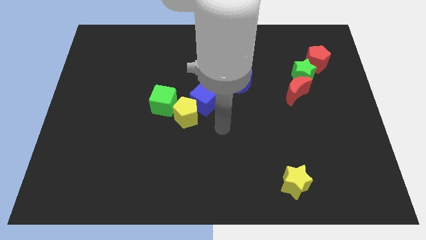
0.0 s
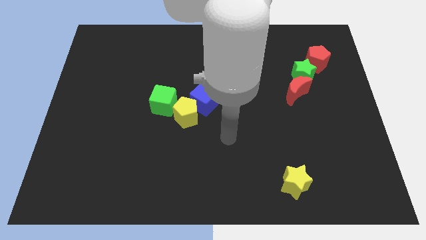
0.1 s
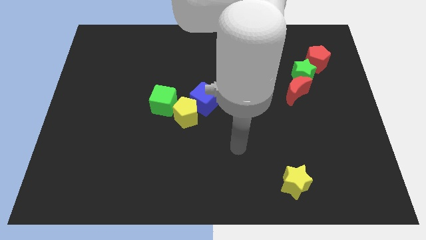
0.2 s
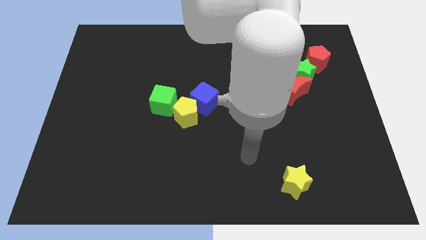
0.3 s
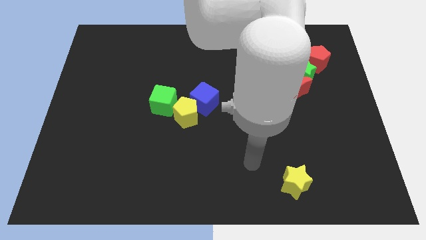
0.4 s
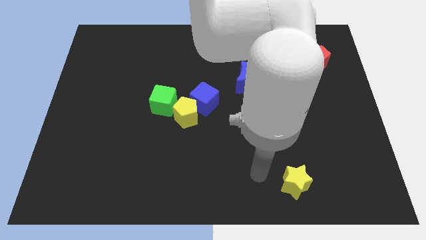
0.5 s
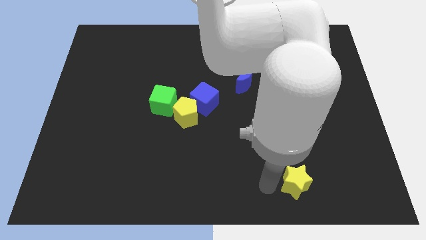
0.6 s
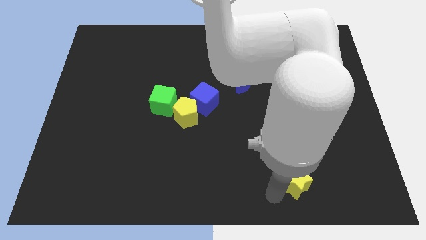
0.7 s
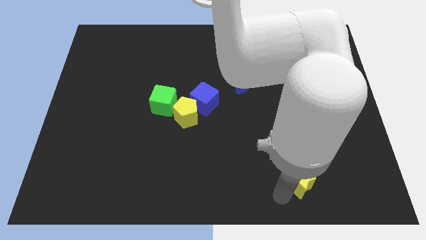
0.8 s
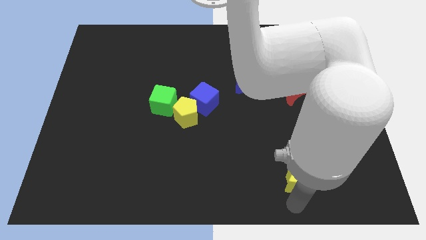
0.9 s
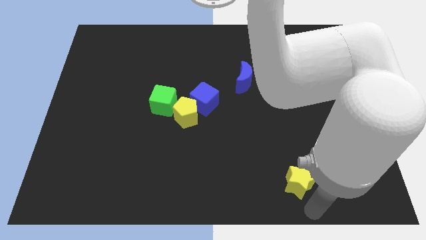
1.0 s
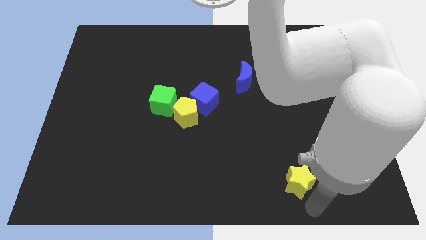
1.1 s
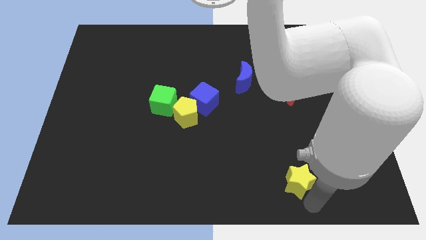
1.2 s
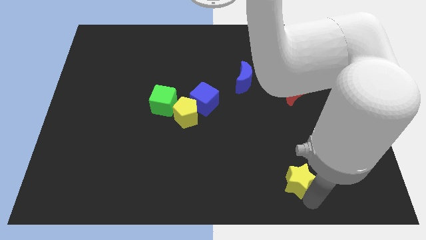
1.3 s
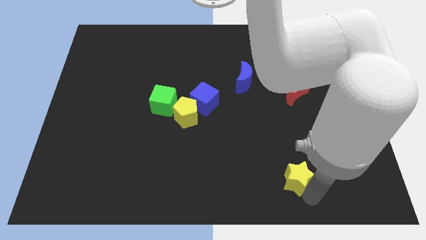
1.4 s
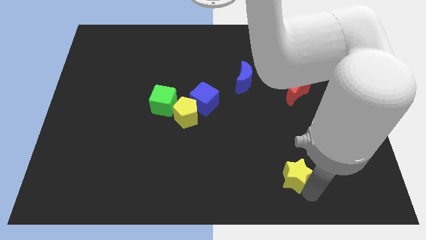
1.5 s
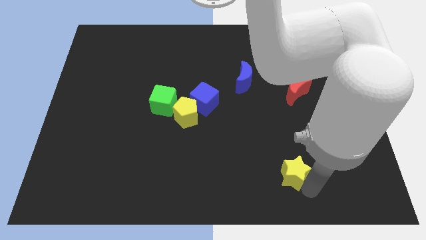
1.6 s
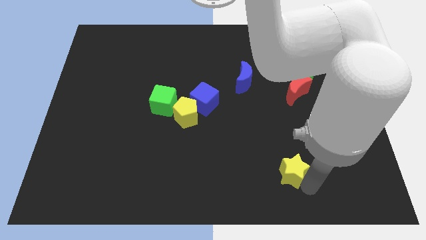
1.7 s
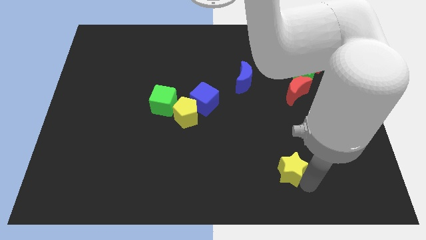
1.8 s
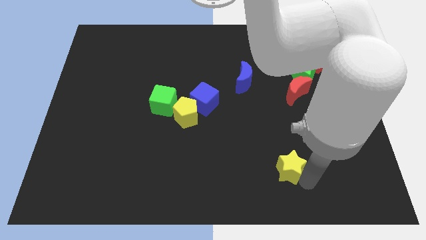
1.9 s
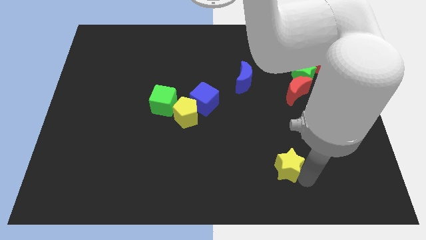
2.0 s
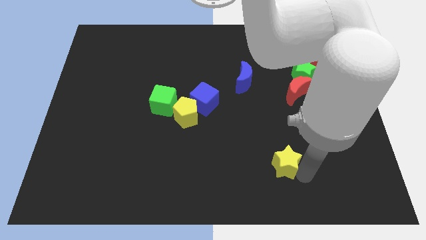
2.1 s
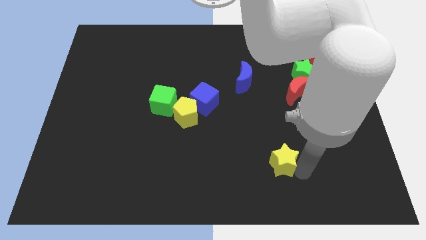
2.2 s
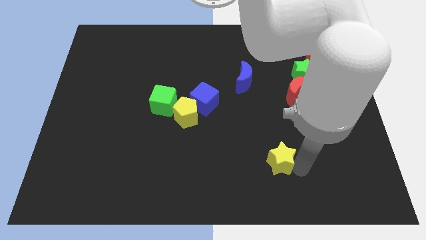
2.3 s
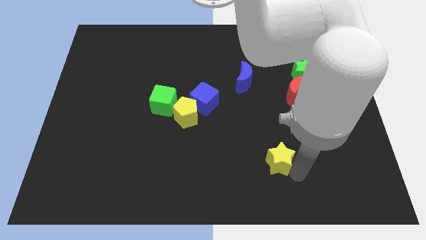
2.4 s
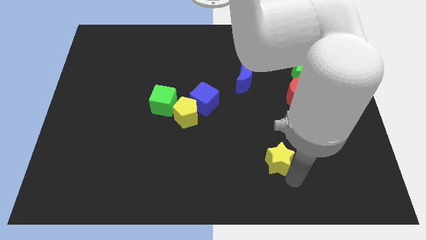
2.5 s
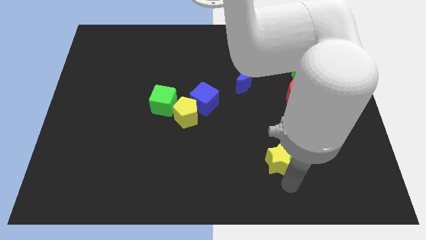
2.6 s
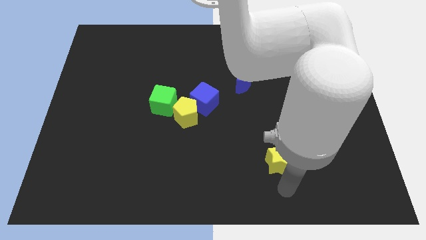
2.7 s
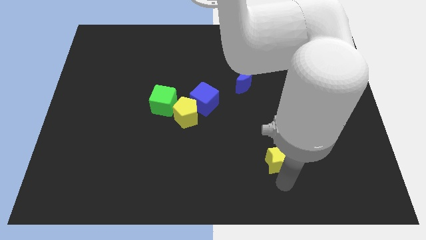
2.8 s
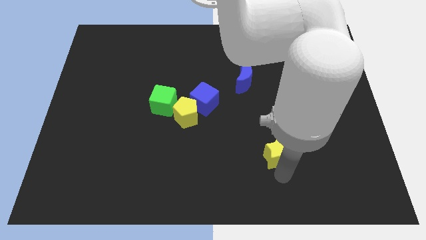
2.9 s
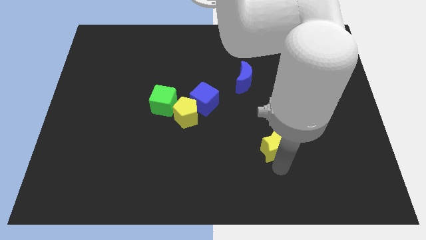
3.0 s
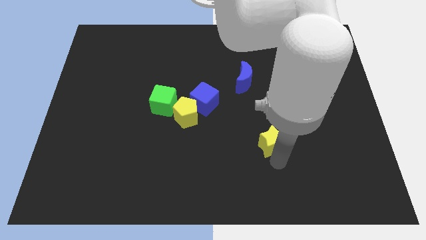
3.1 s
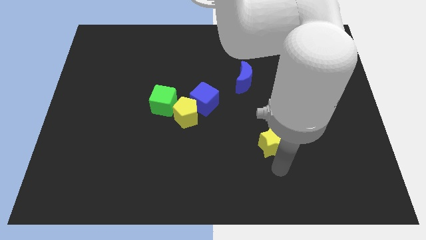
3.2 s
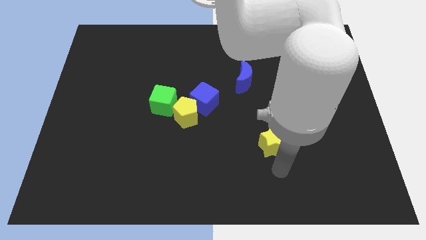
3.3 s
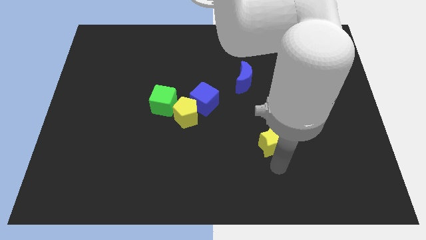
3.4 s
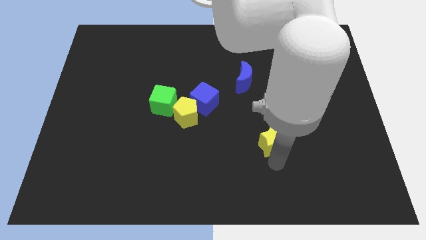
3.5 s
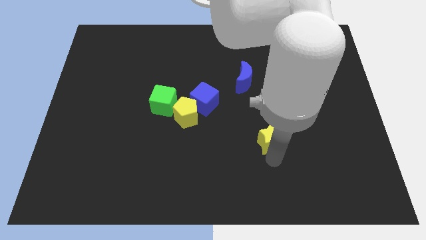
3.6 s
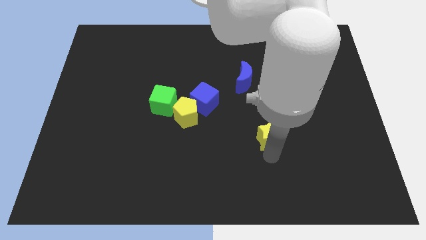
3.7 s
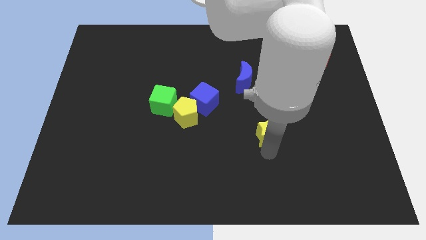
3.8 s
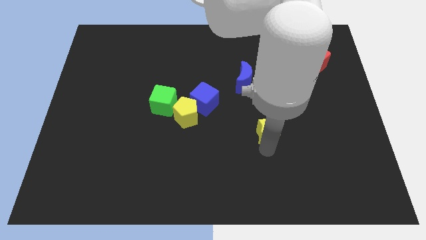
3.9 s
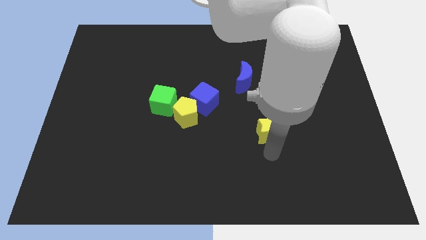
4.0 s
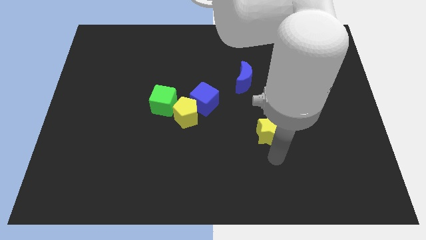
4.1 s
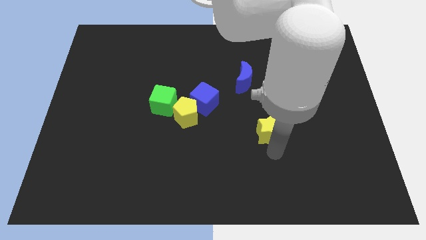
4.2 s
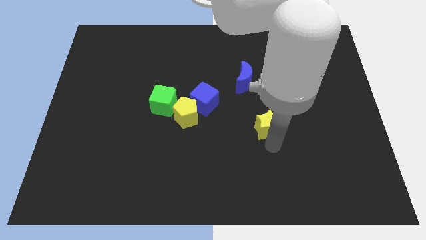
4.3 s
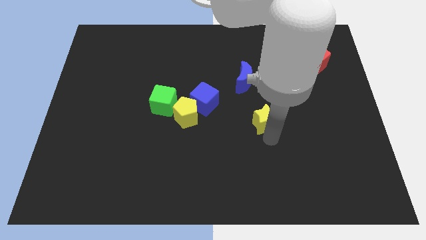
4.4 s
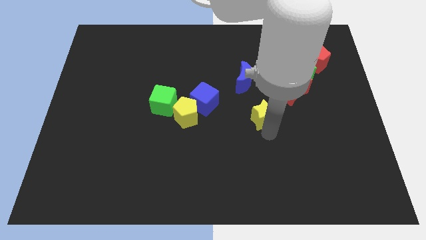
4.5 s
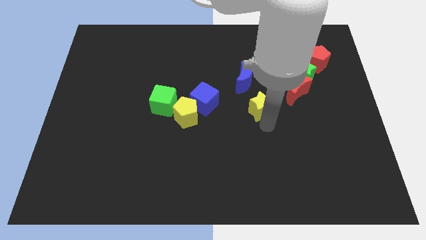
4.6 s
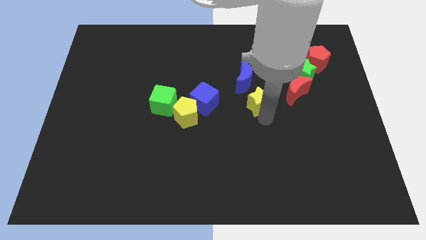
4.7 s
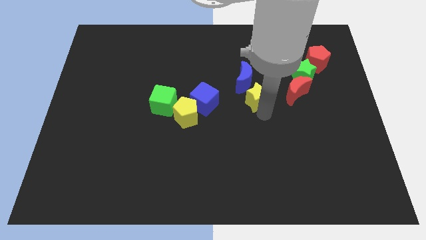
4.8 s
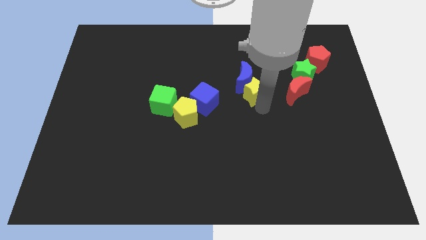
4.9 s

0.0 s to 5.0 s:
slide the yellow star next to the blue moon

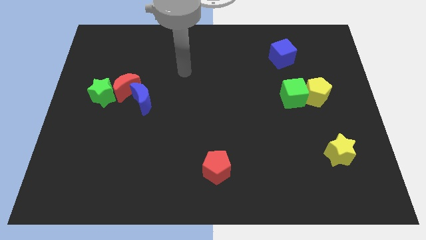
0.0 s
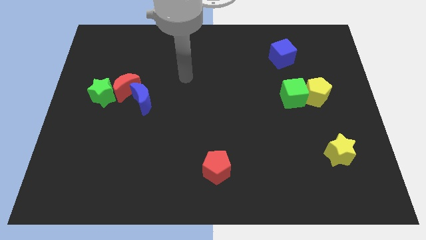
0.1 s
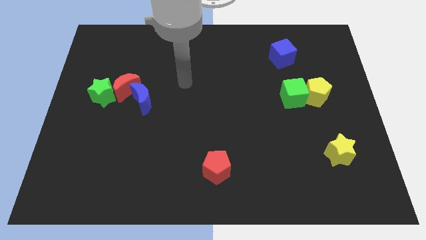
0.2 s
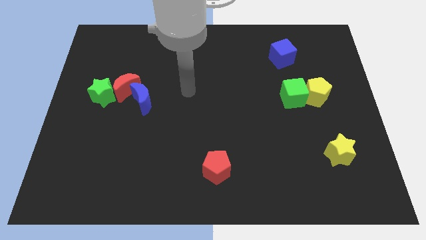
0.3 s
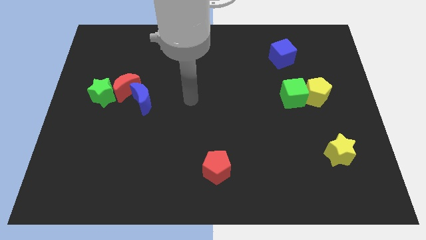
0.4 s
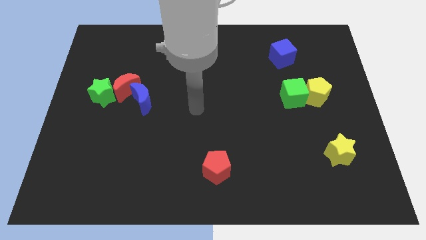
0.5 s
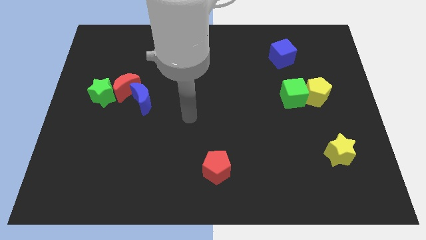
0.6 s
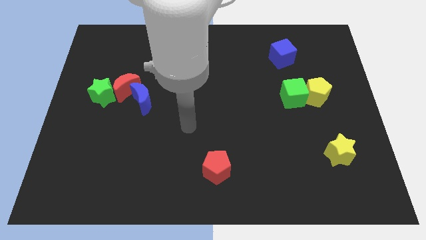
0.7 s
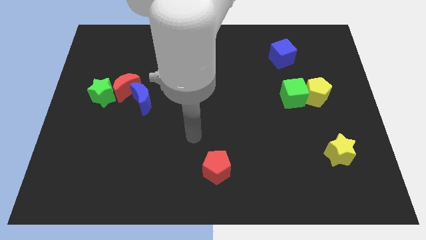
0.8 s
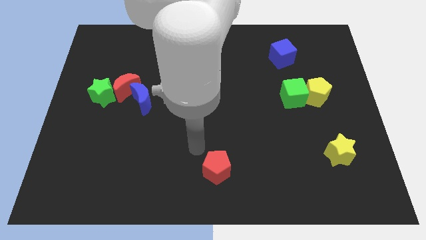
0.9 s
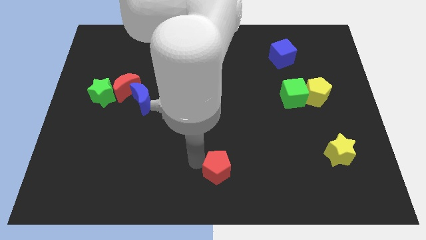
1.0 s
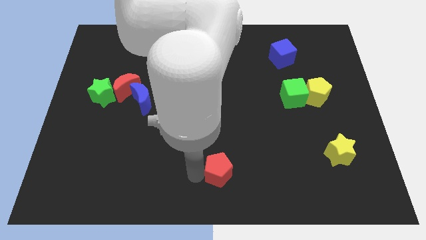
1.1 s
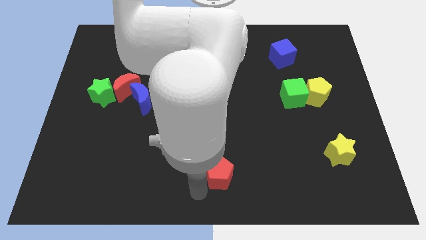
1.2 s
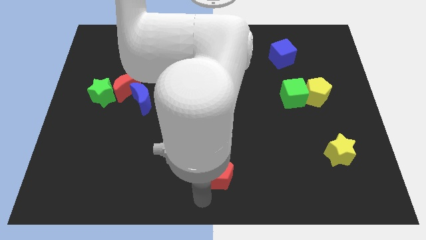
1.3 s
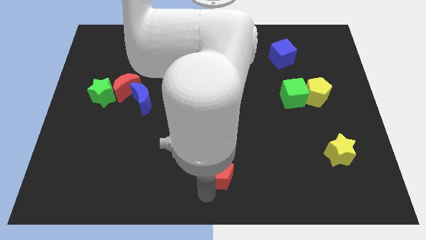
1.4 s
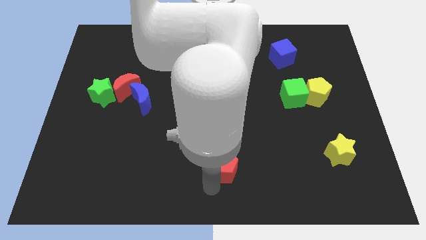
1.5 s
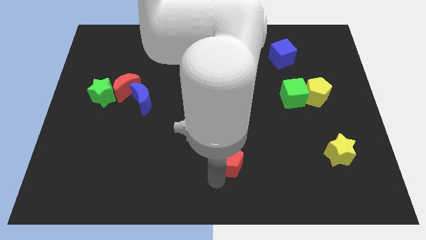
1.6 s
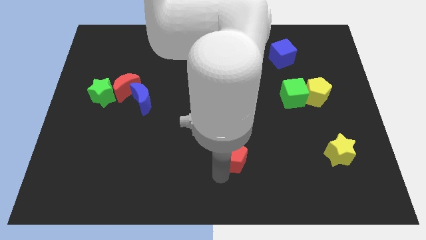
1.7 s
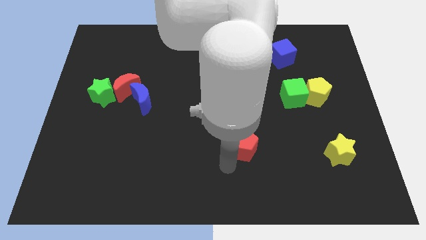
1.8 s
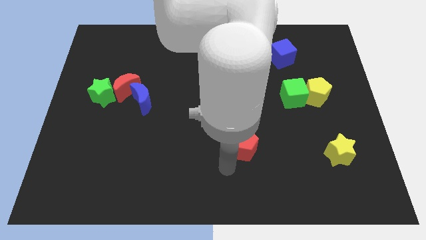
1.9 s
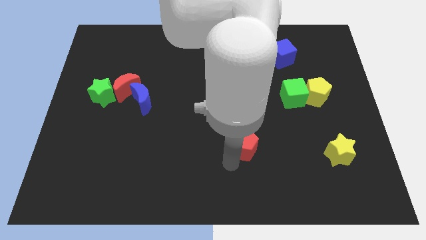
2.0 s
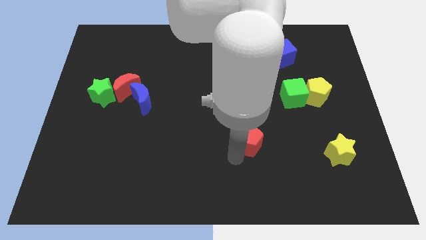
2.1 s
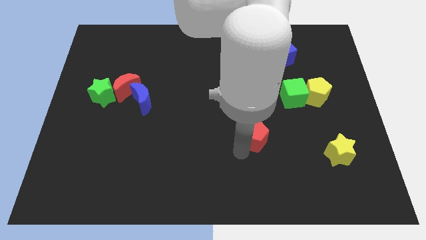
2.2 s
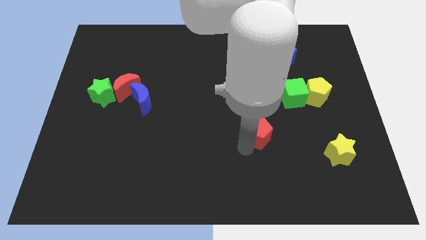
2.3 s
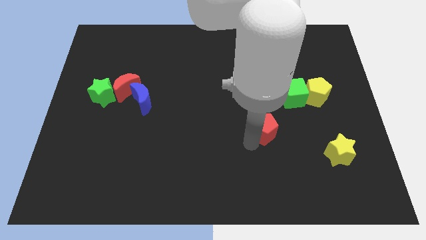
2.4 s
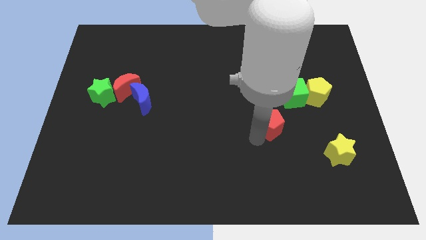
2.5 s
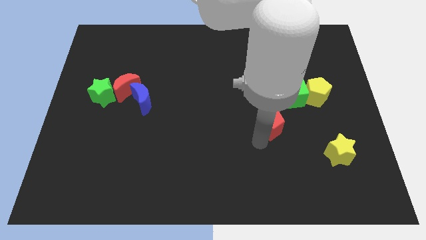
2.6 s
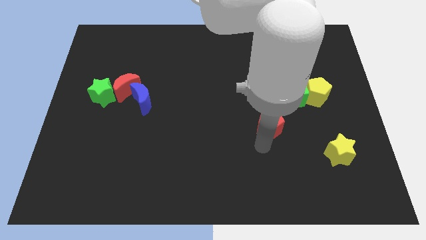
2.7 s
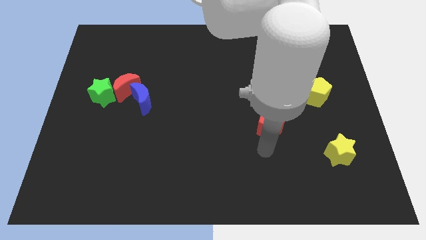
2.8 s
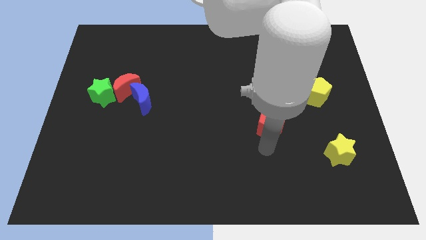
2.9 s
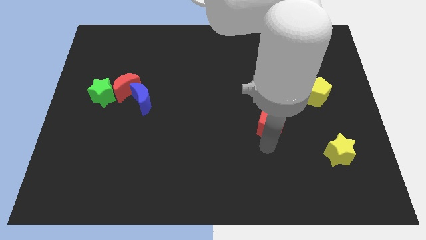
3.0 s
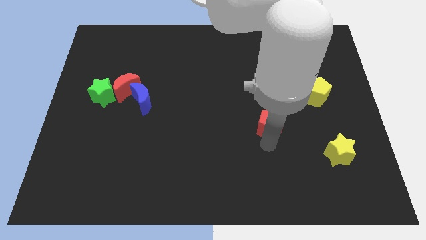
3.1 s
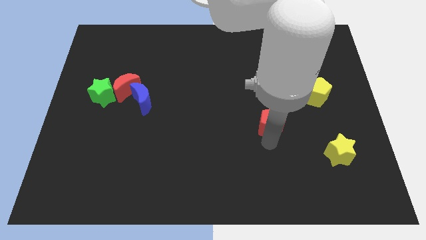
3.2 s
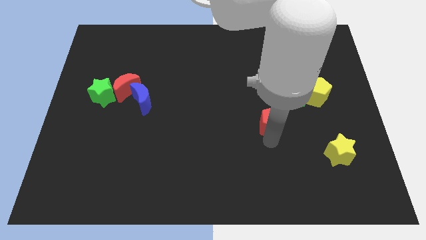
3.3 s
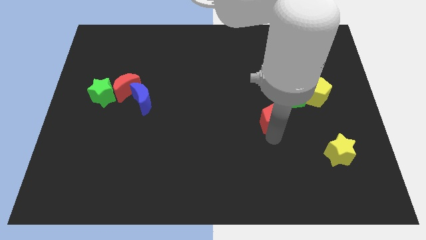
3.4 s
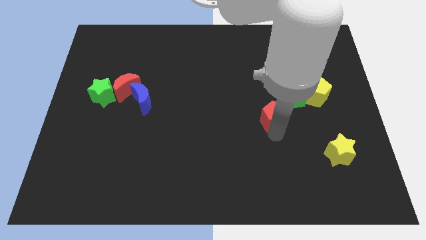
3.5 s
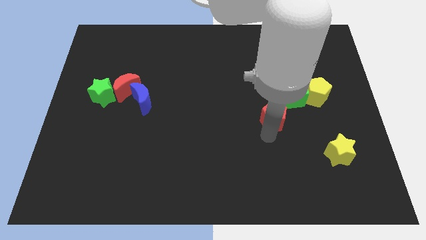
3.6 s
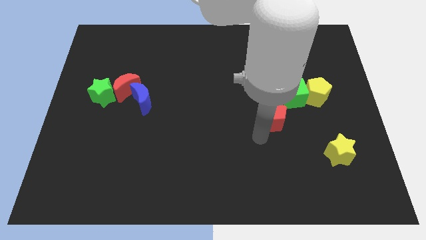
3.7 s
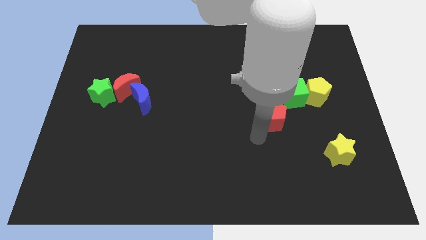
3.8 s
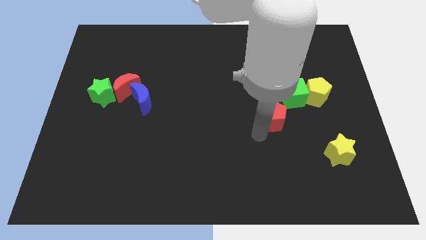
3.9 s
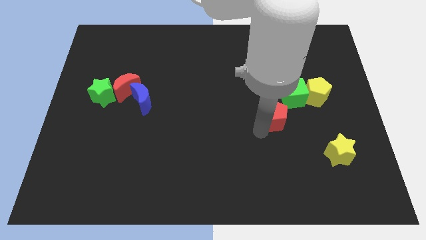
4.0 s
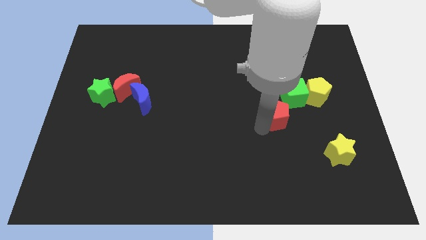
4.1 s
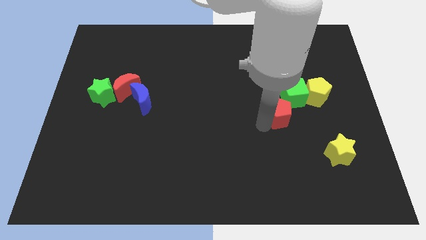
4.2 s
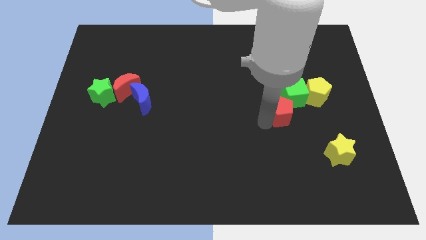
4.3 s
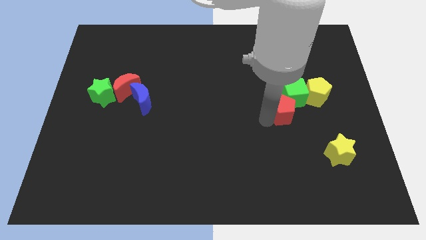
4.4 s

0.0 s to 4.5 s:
move the red pentagon to the green cube
